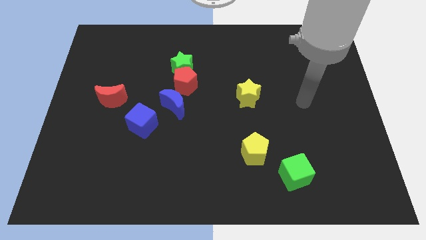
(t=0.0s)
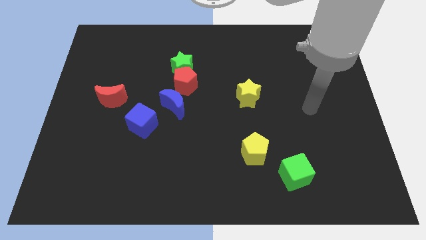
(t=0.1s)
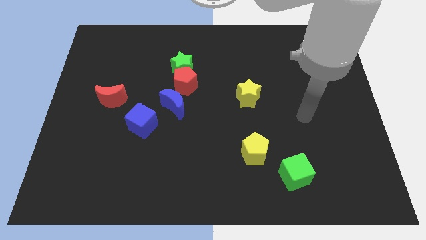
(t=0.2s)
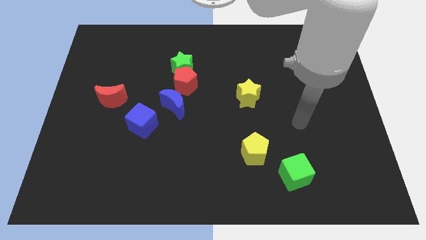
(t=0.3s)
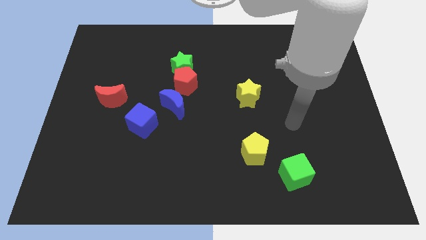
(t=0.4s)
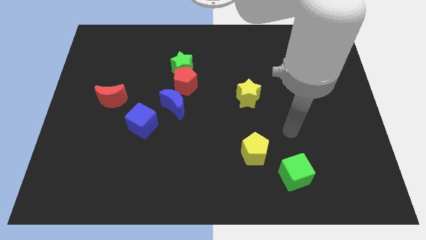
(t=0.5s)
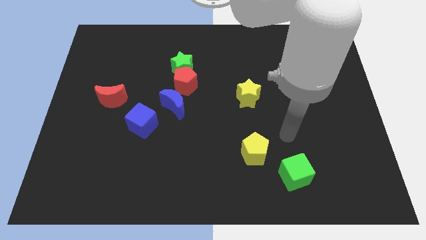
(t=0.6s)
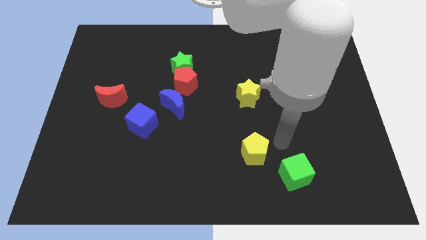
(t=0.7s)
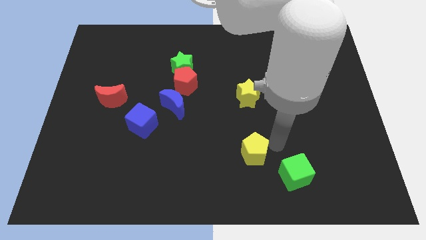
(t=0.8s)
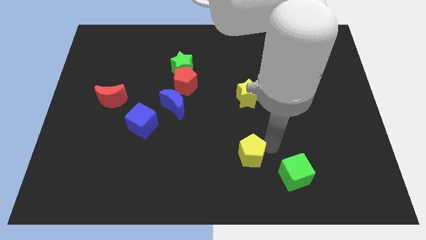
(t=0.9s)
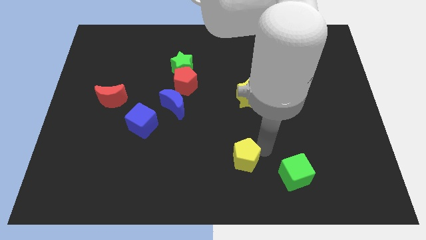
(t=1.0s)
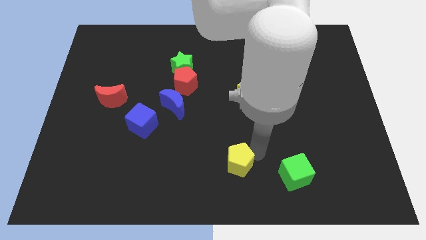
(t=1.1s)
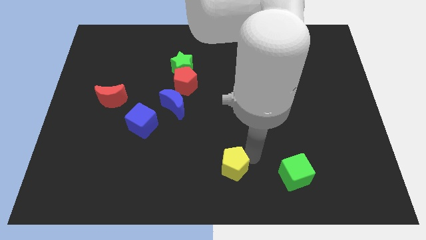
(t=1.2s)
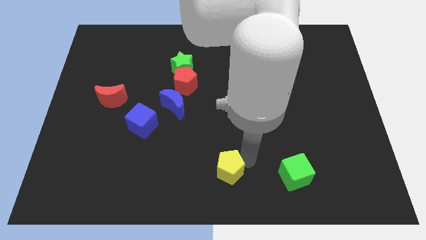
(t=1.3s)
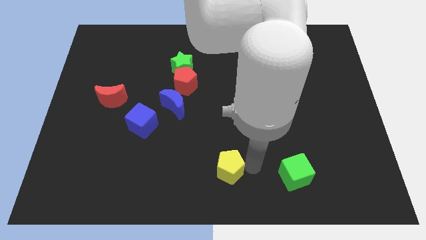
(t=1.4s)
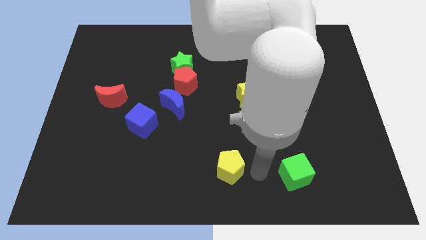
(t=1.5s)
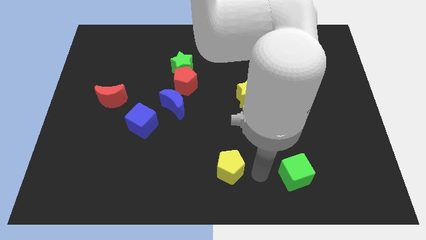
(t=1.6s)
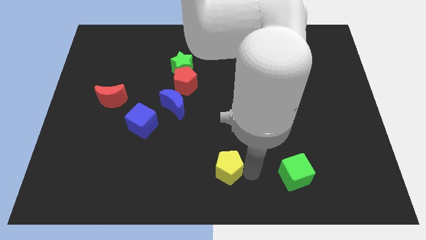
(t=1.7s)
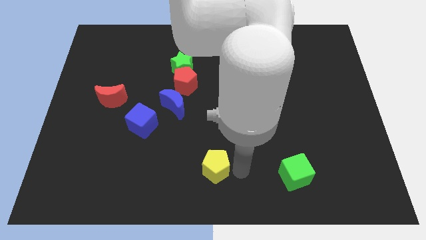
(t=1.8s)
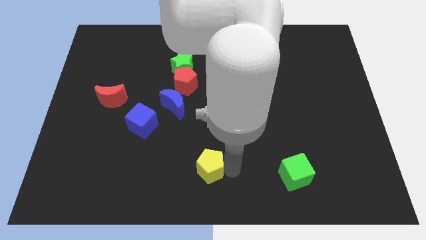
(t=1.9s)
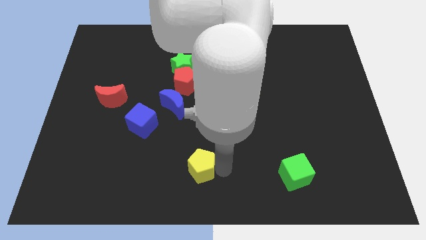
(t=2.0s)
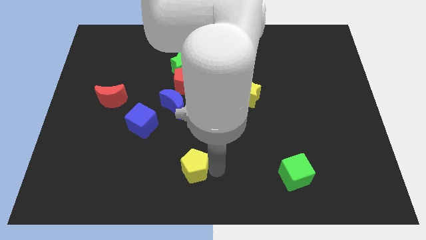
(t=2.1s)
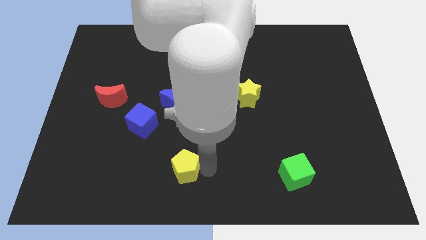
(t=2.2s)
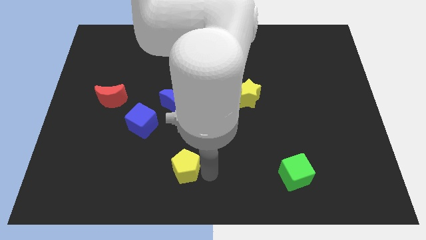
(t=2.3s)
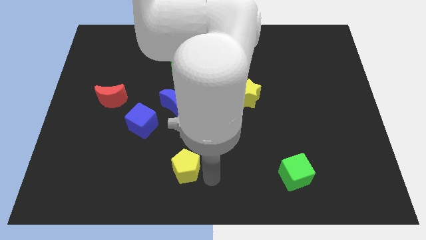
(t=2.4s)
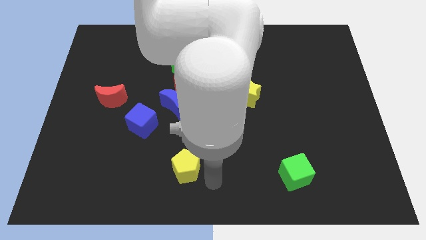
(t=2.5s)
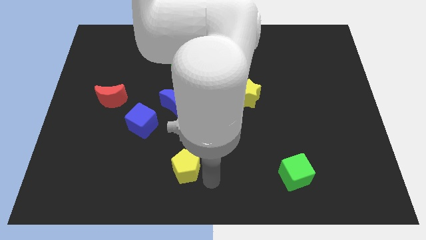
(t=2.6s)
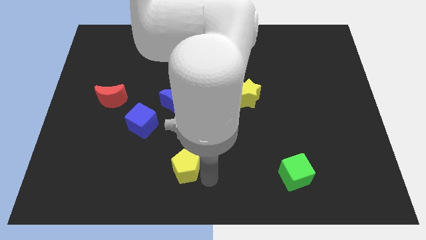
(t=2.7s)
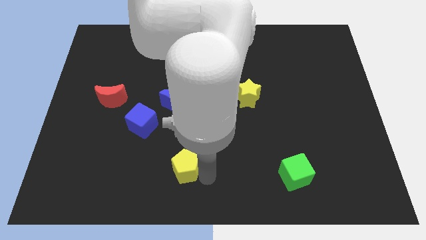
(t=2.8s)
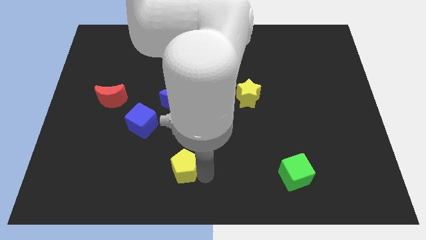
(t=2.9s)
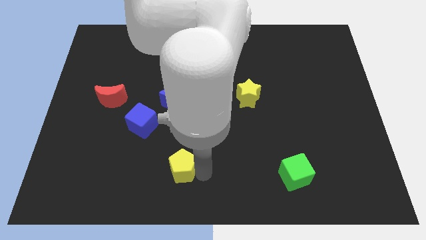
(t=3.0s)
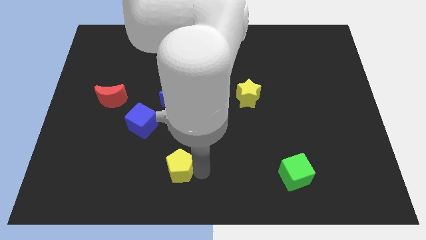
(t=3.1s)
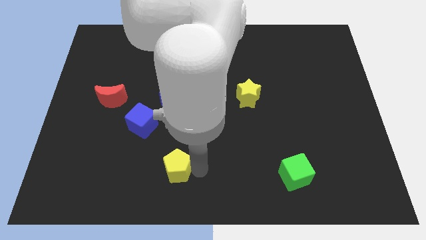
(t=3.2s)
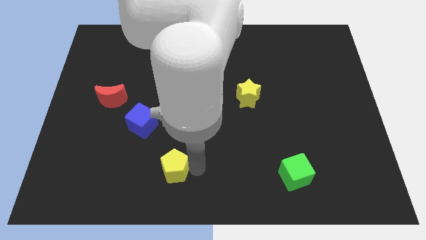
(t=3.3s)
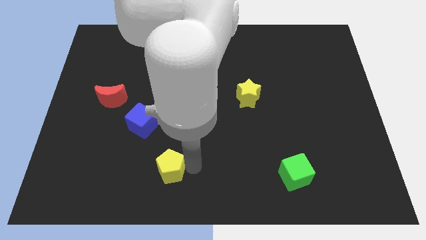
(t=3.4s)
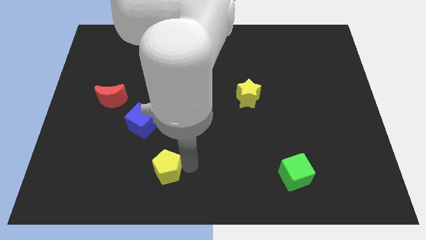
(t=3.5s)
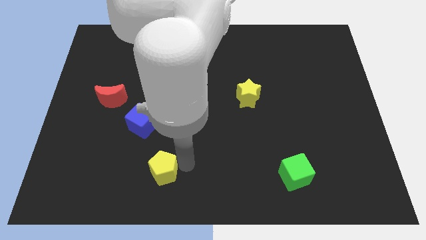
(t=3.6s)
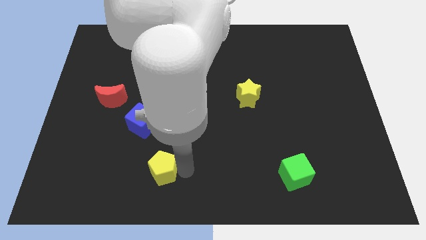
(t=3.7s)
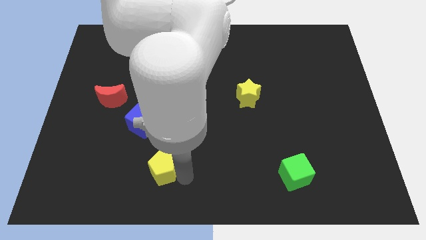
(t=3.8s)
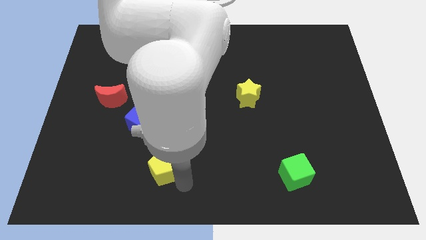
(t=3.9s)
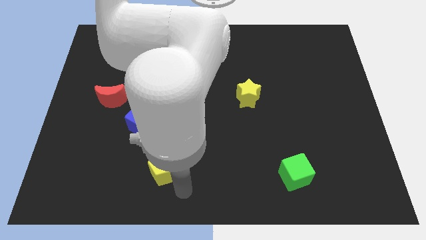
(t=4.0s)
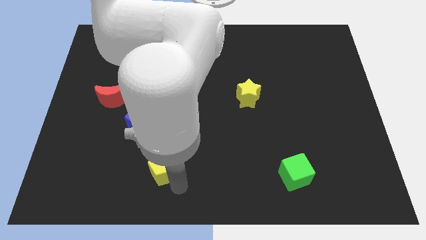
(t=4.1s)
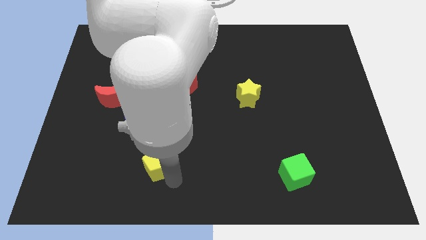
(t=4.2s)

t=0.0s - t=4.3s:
push the yellow pentagon left

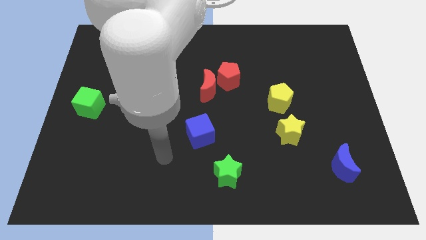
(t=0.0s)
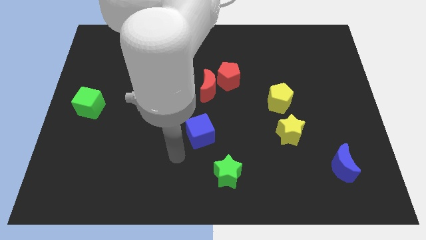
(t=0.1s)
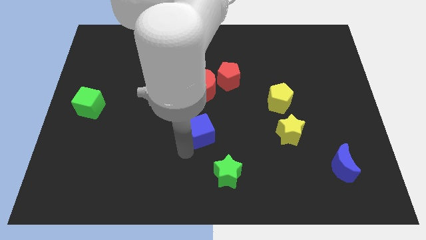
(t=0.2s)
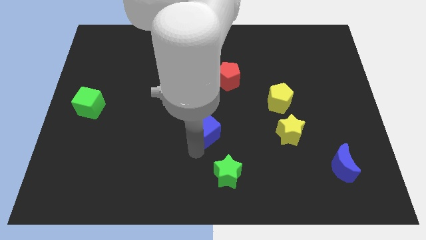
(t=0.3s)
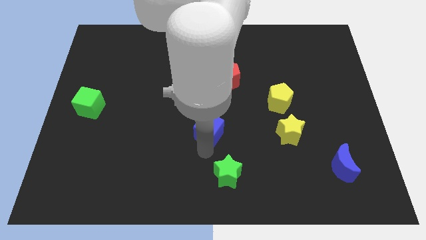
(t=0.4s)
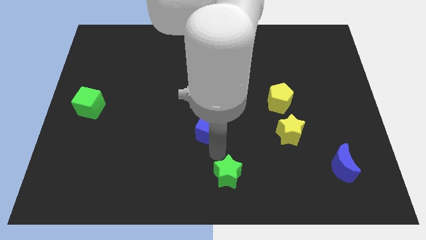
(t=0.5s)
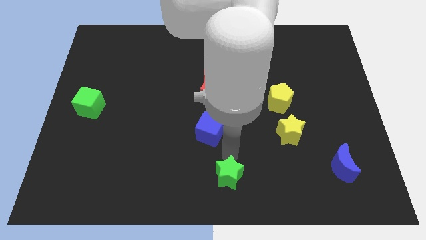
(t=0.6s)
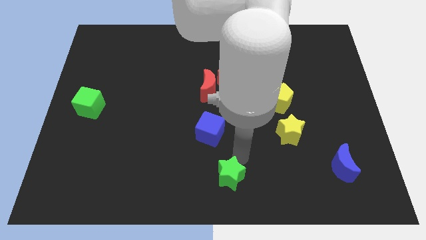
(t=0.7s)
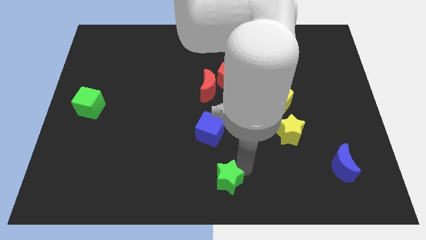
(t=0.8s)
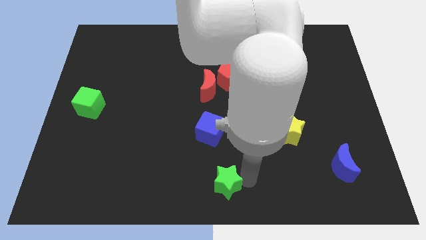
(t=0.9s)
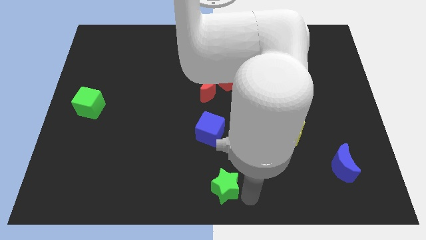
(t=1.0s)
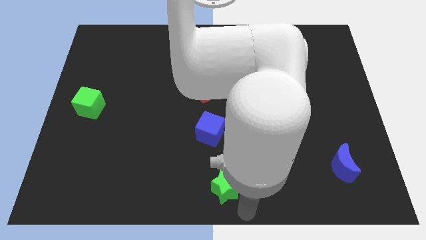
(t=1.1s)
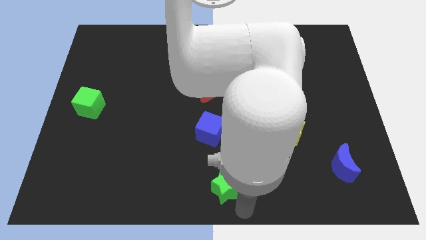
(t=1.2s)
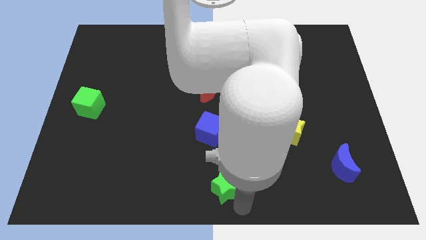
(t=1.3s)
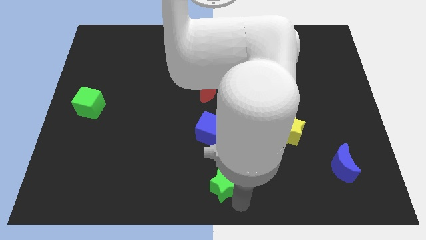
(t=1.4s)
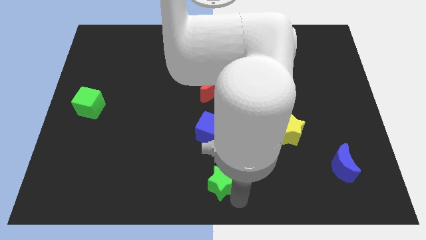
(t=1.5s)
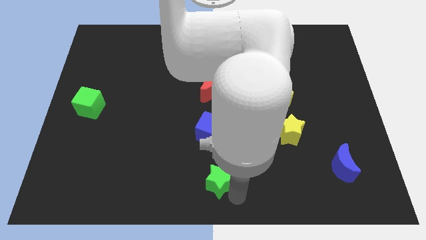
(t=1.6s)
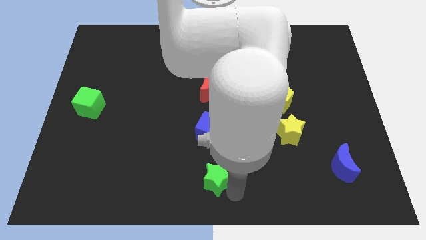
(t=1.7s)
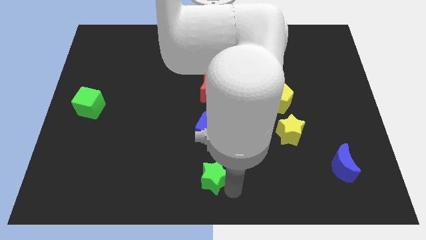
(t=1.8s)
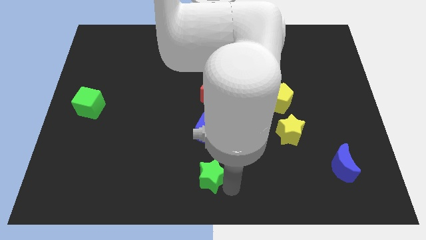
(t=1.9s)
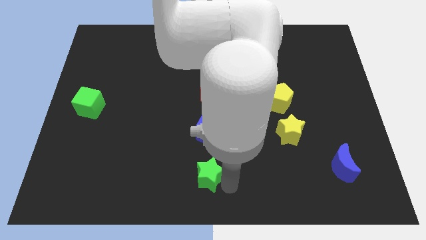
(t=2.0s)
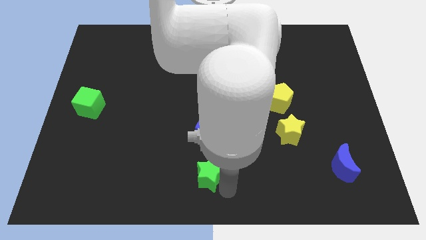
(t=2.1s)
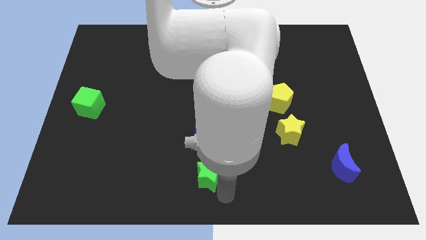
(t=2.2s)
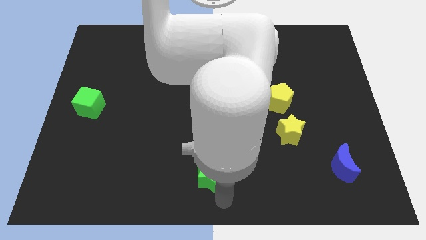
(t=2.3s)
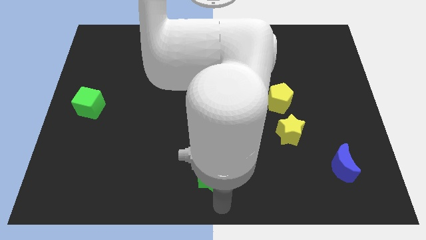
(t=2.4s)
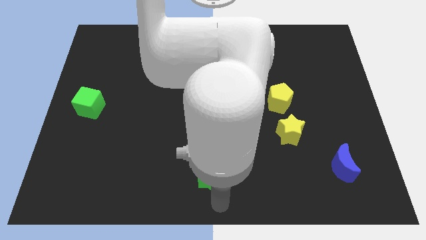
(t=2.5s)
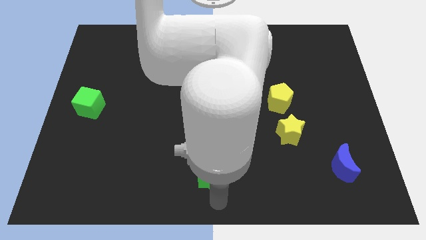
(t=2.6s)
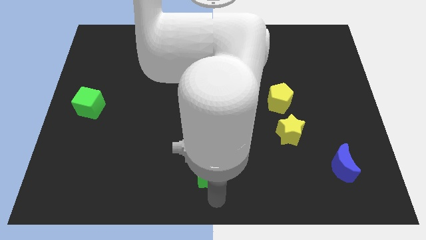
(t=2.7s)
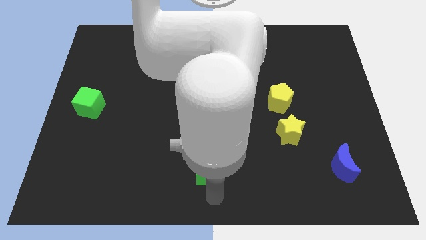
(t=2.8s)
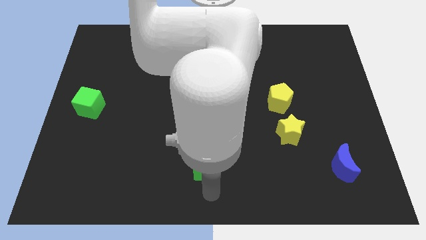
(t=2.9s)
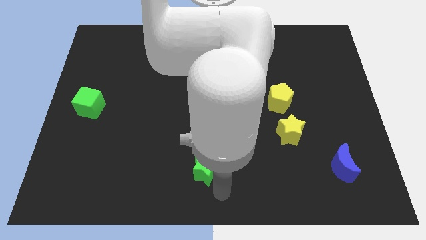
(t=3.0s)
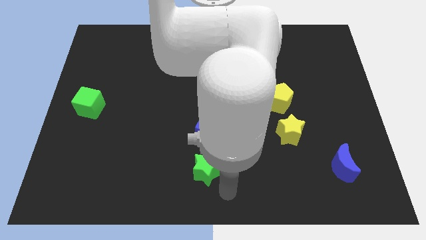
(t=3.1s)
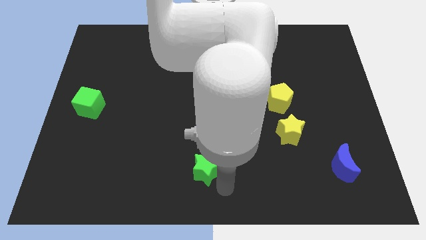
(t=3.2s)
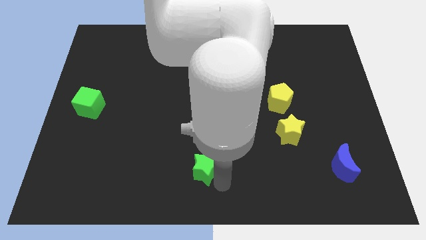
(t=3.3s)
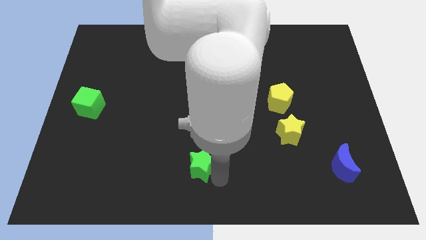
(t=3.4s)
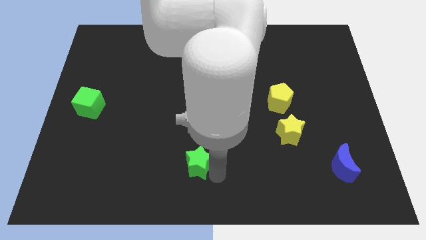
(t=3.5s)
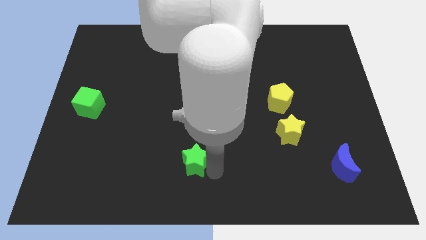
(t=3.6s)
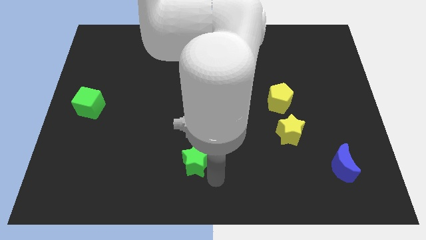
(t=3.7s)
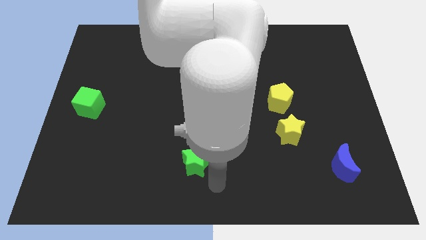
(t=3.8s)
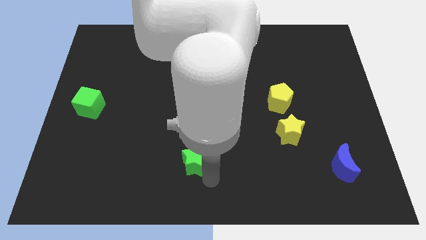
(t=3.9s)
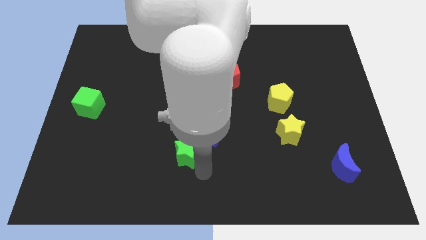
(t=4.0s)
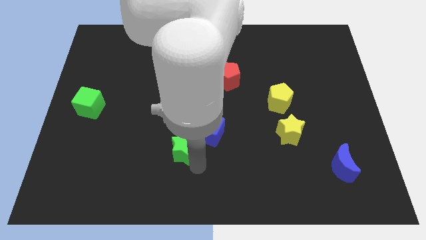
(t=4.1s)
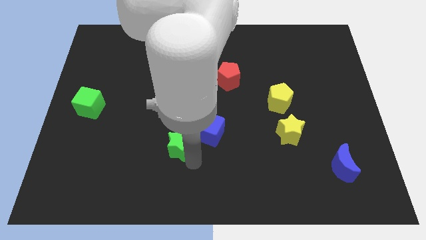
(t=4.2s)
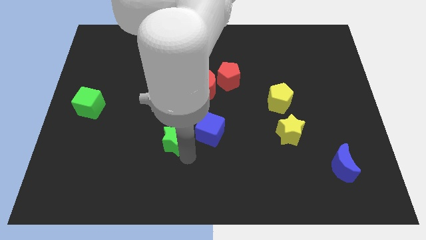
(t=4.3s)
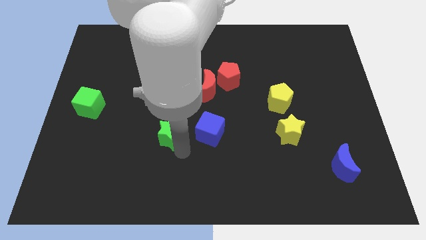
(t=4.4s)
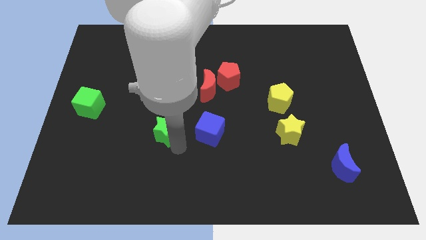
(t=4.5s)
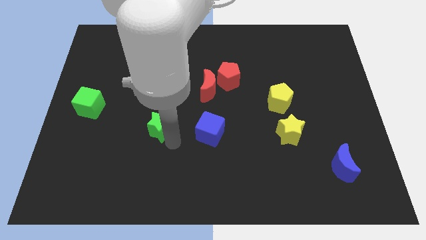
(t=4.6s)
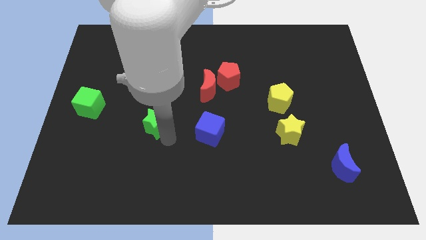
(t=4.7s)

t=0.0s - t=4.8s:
move the green star up and then left
